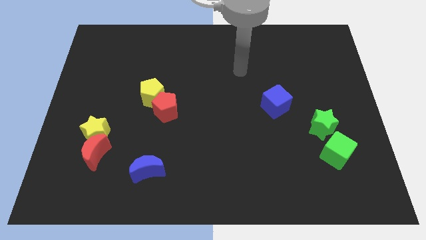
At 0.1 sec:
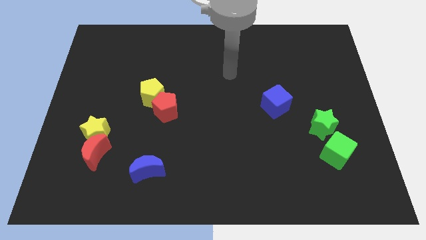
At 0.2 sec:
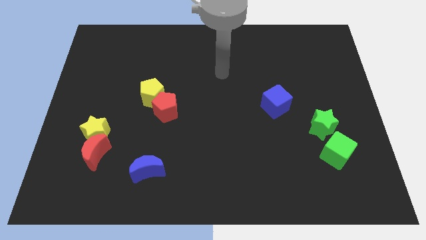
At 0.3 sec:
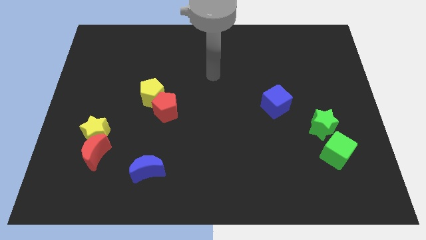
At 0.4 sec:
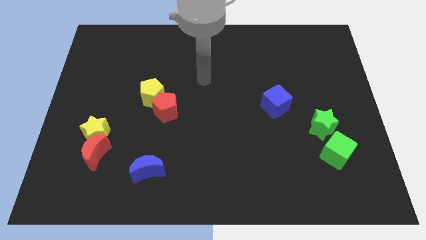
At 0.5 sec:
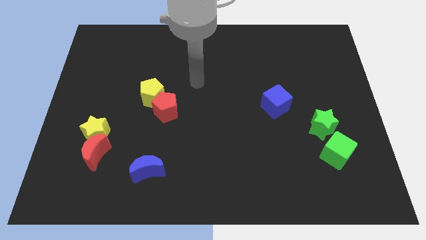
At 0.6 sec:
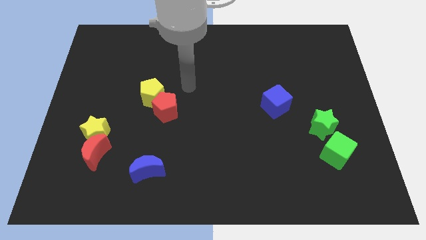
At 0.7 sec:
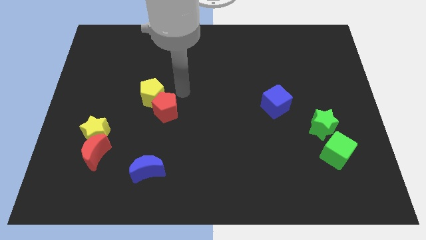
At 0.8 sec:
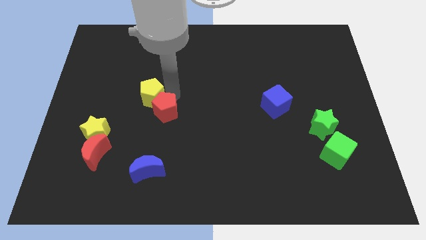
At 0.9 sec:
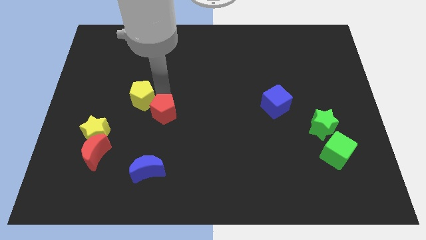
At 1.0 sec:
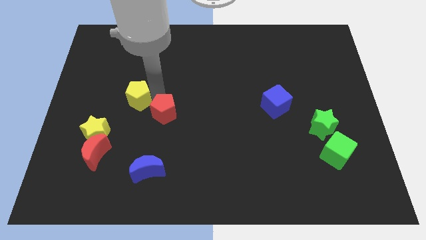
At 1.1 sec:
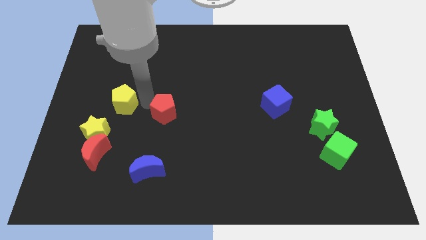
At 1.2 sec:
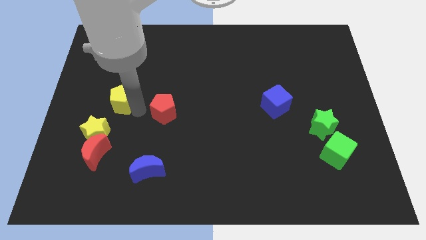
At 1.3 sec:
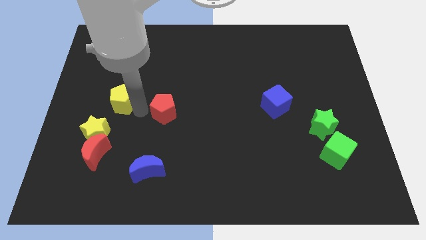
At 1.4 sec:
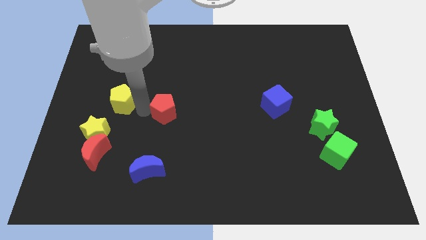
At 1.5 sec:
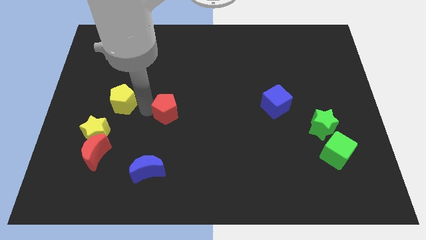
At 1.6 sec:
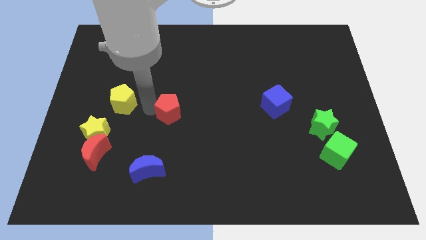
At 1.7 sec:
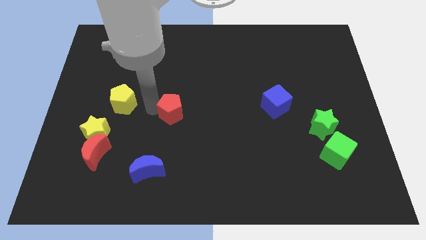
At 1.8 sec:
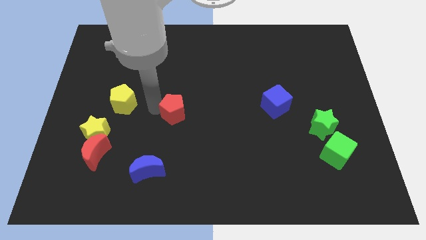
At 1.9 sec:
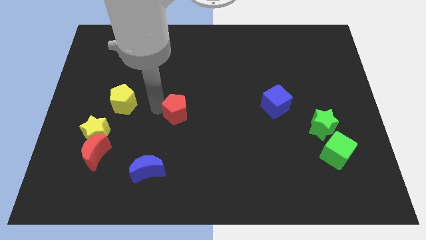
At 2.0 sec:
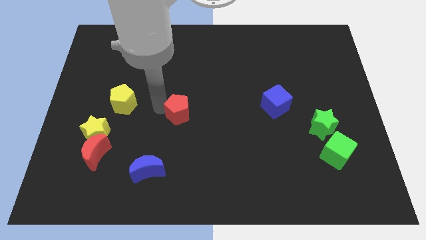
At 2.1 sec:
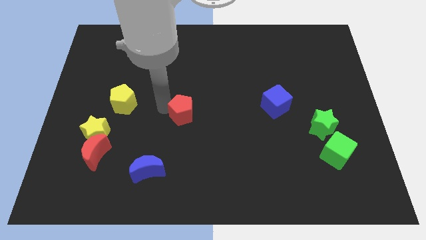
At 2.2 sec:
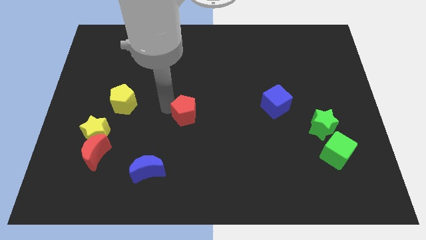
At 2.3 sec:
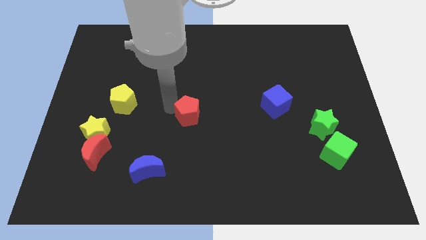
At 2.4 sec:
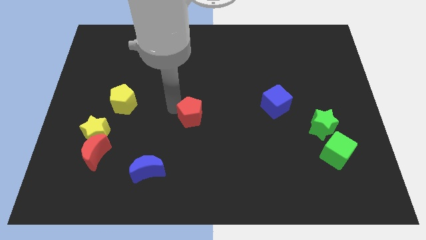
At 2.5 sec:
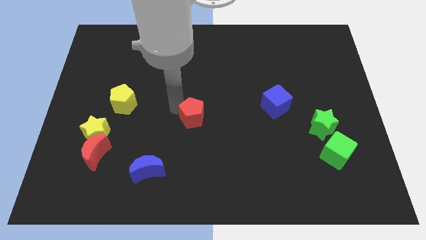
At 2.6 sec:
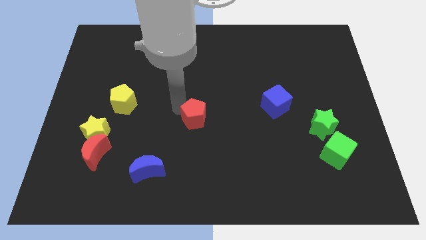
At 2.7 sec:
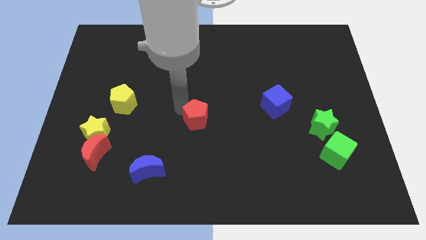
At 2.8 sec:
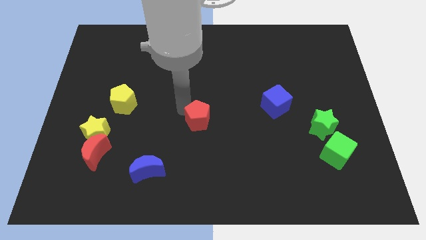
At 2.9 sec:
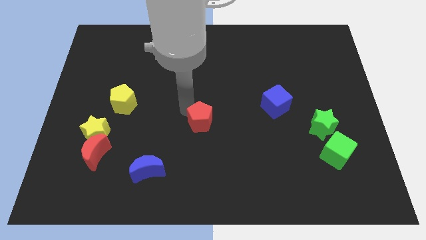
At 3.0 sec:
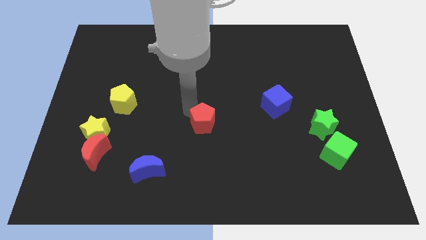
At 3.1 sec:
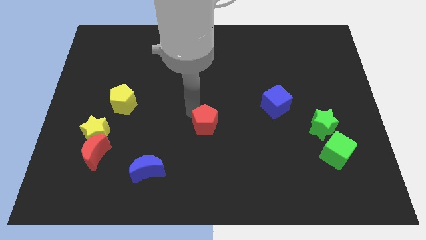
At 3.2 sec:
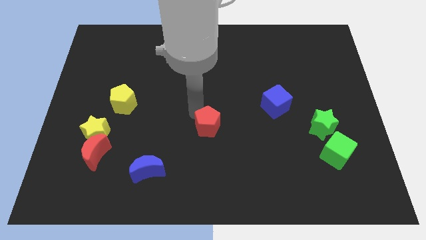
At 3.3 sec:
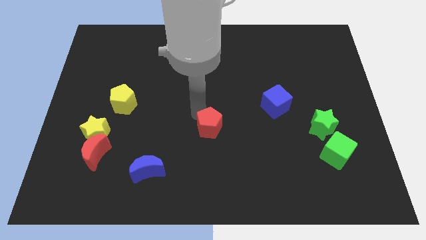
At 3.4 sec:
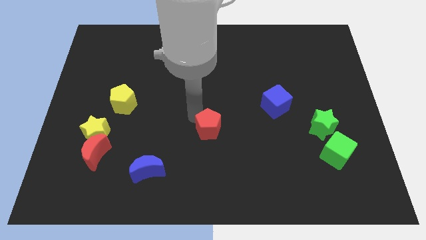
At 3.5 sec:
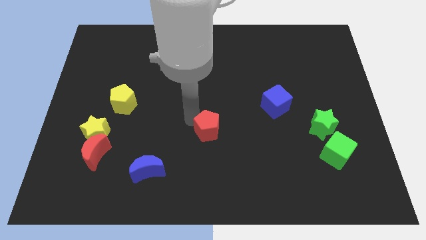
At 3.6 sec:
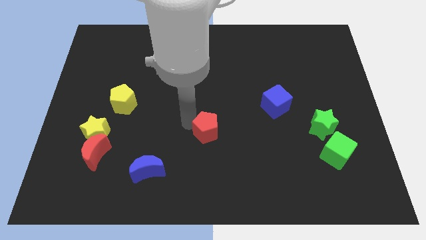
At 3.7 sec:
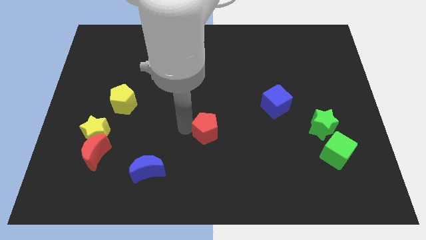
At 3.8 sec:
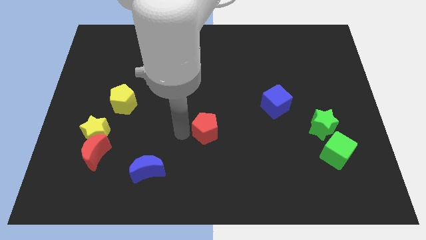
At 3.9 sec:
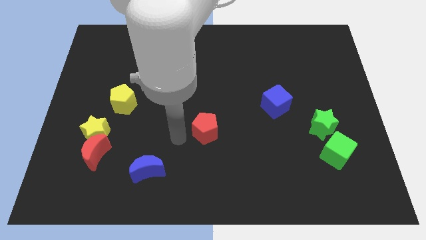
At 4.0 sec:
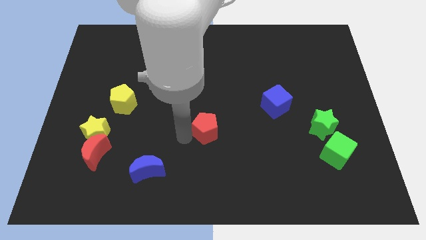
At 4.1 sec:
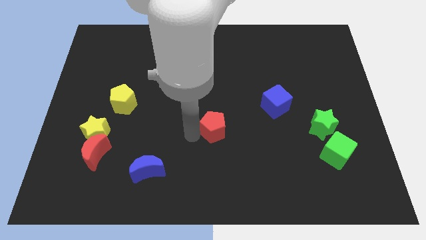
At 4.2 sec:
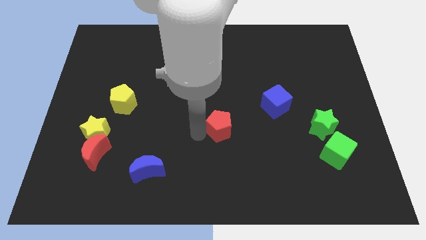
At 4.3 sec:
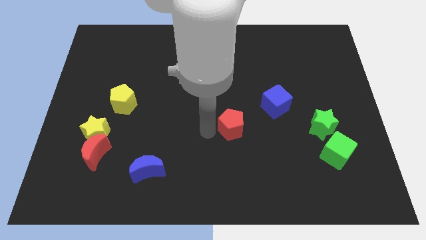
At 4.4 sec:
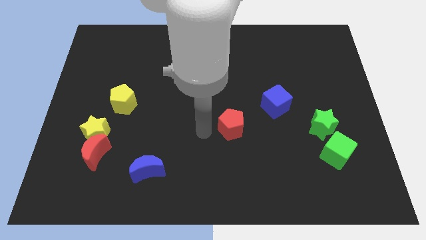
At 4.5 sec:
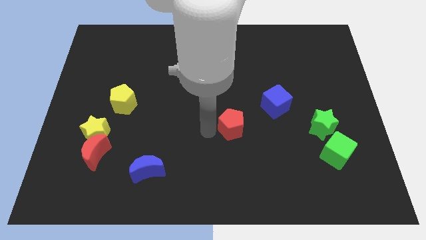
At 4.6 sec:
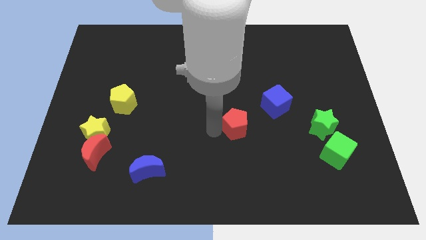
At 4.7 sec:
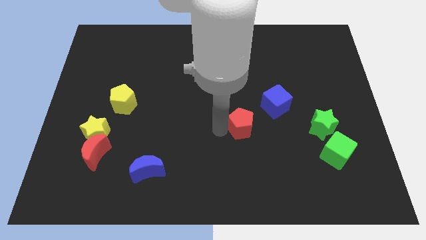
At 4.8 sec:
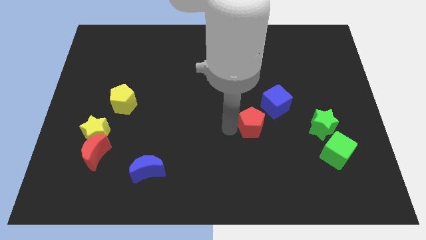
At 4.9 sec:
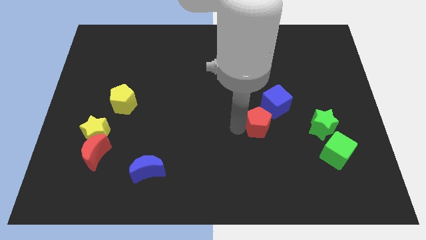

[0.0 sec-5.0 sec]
push the red pentagon right

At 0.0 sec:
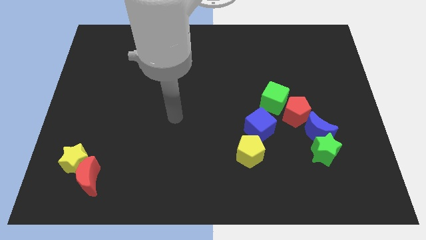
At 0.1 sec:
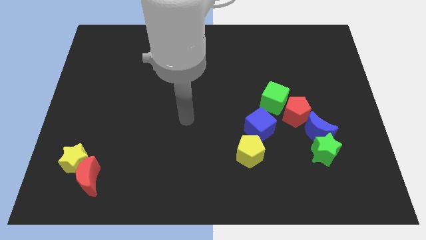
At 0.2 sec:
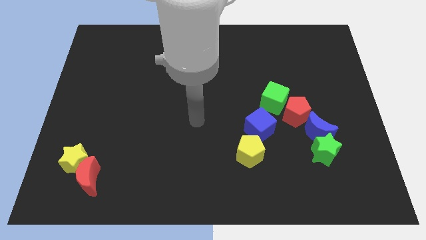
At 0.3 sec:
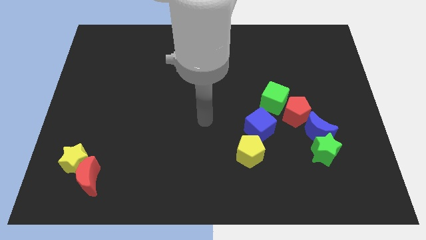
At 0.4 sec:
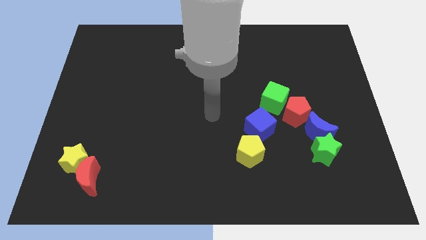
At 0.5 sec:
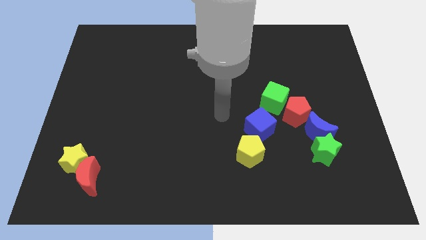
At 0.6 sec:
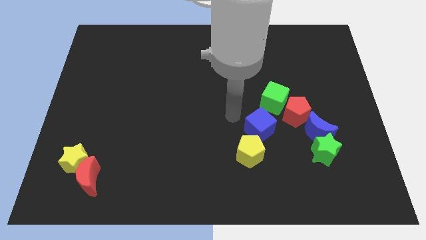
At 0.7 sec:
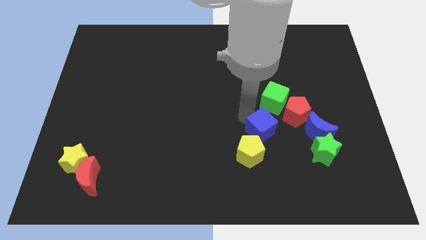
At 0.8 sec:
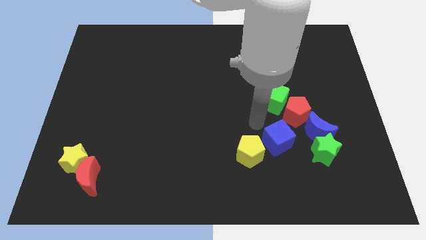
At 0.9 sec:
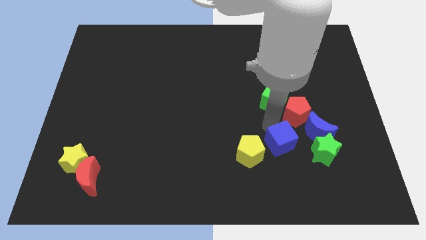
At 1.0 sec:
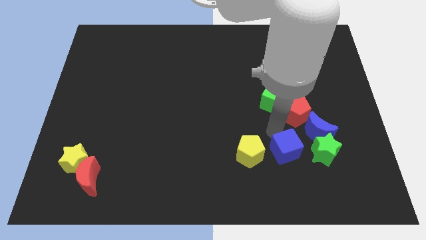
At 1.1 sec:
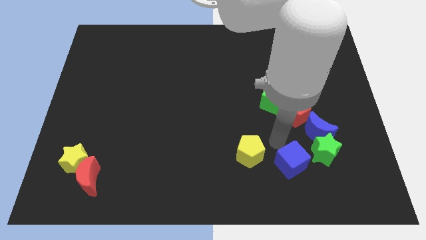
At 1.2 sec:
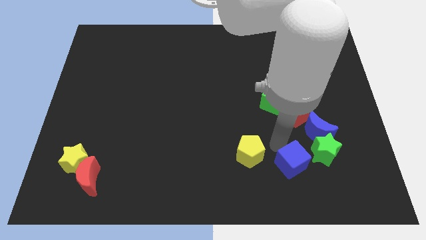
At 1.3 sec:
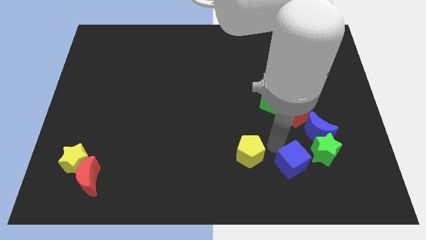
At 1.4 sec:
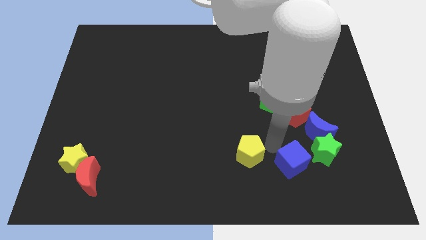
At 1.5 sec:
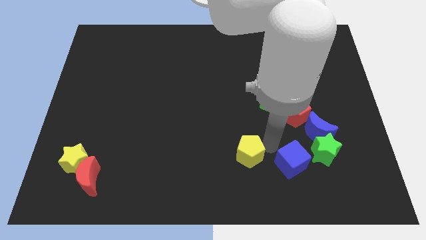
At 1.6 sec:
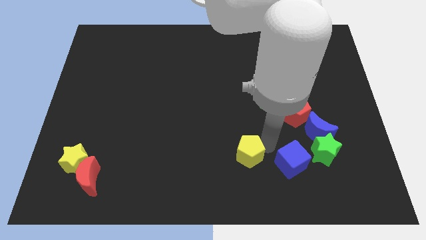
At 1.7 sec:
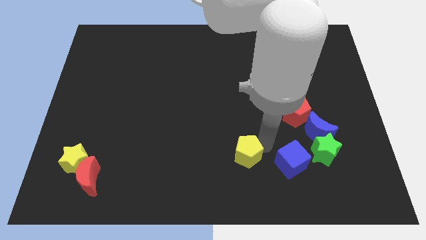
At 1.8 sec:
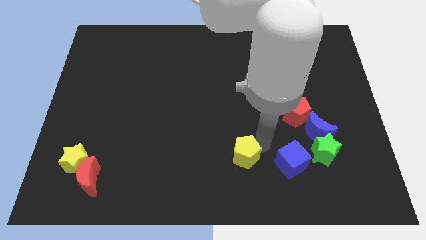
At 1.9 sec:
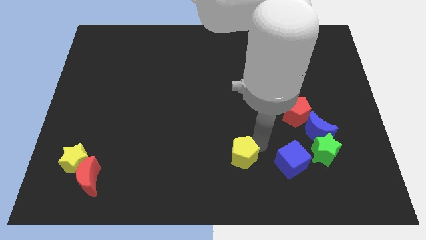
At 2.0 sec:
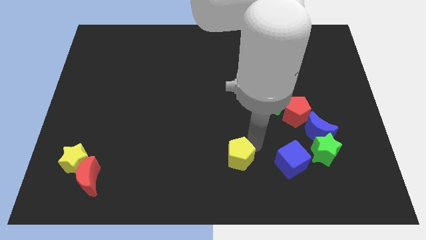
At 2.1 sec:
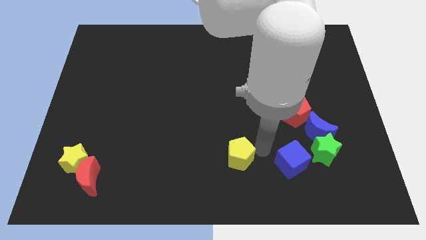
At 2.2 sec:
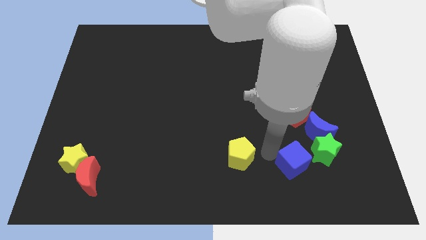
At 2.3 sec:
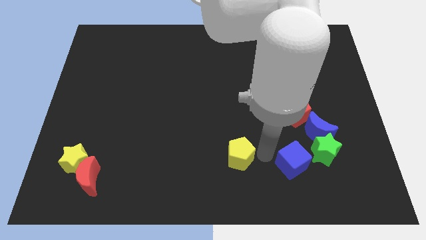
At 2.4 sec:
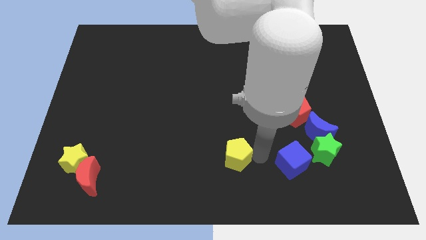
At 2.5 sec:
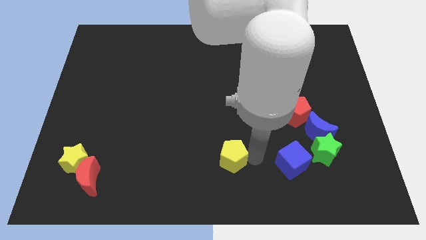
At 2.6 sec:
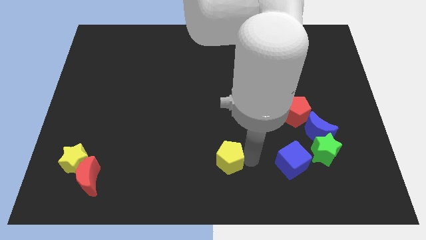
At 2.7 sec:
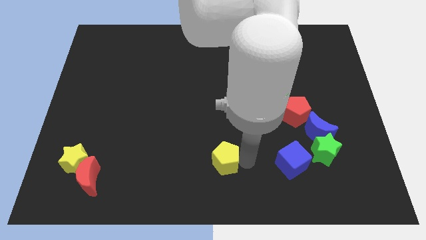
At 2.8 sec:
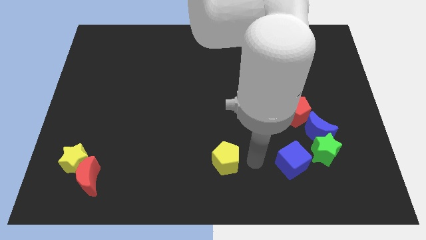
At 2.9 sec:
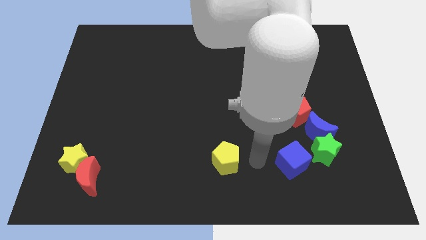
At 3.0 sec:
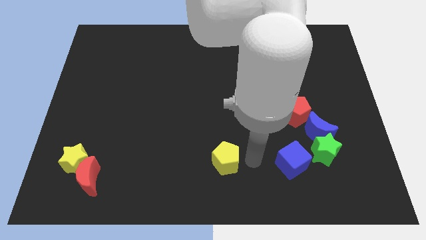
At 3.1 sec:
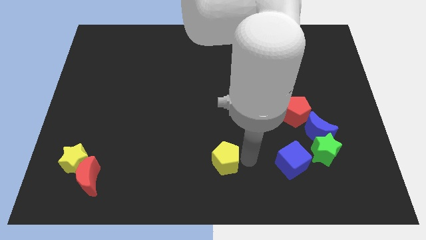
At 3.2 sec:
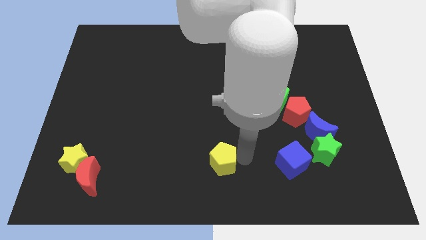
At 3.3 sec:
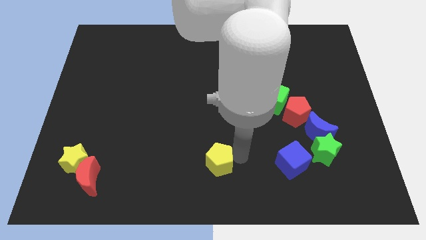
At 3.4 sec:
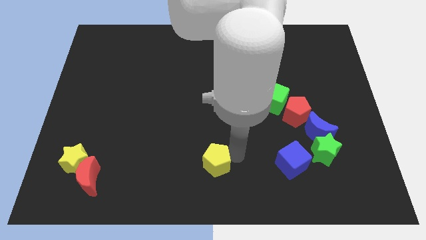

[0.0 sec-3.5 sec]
move the yellow pentagon somewhat left
